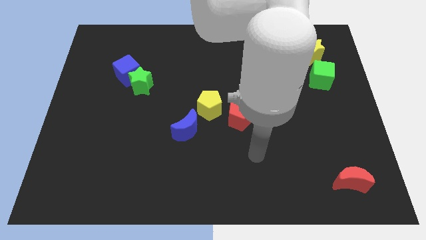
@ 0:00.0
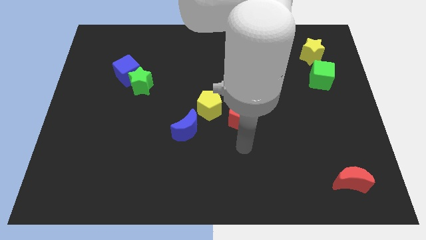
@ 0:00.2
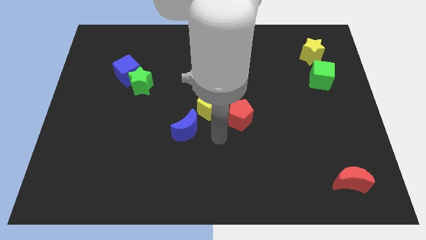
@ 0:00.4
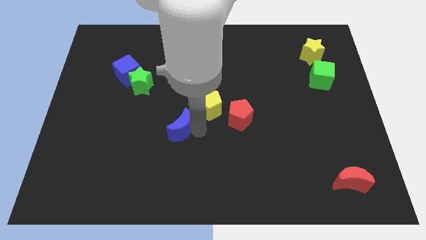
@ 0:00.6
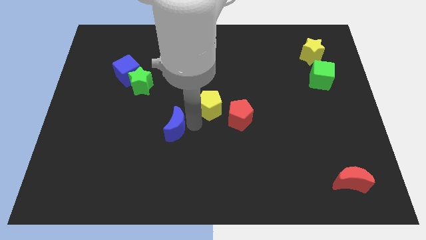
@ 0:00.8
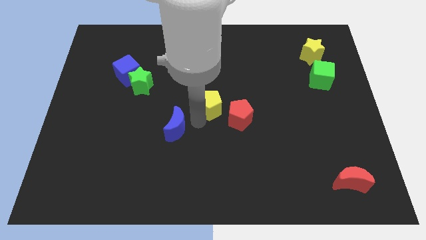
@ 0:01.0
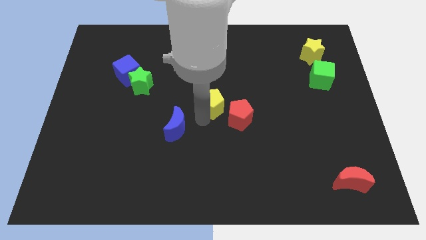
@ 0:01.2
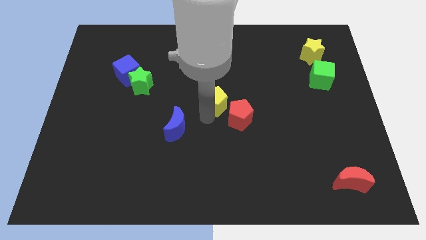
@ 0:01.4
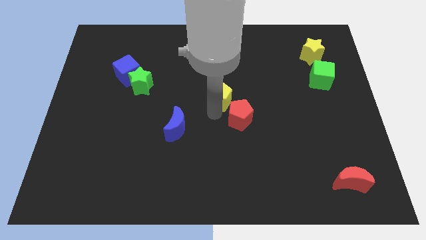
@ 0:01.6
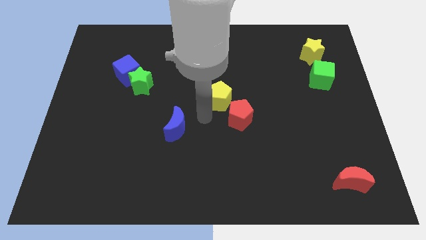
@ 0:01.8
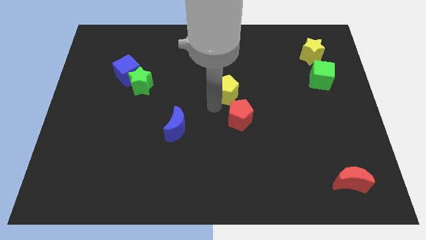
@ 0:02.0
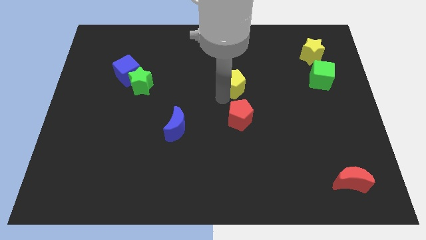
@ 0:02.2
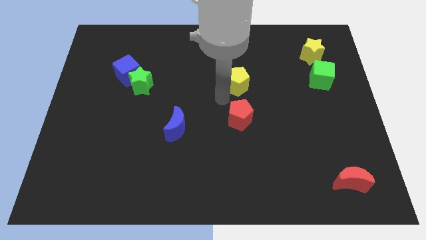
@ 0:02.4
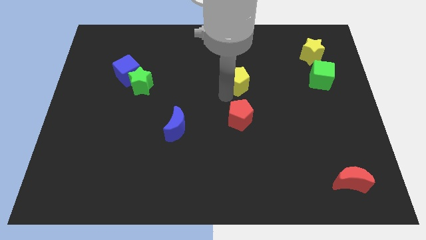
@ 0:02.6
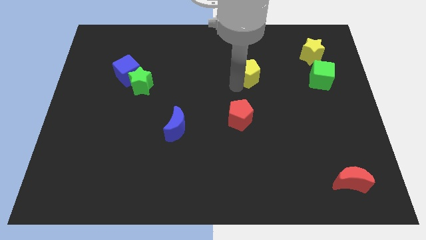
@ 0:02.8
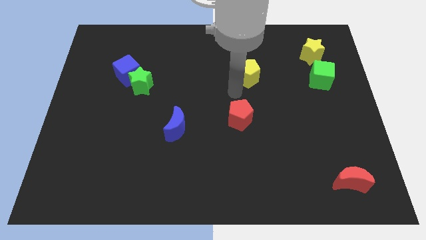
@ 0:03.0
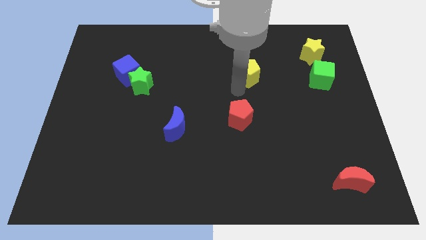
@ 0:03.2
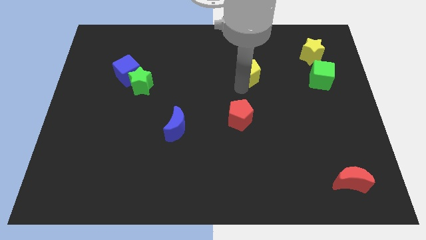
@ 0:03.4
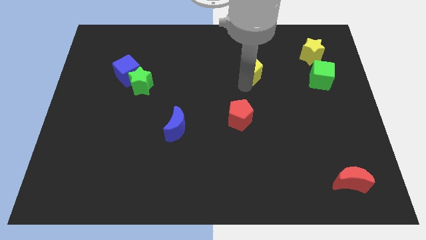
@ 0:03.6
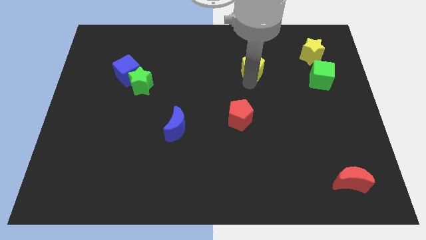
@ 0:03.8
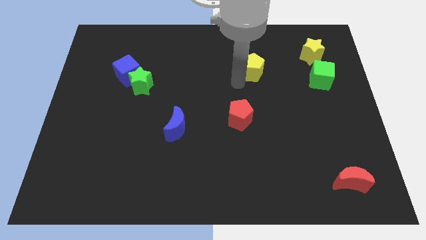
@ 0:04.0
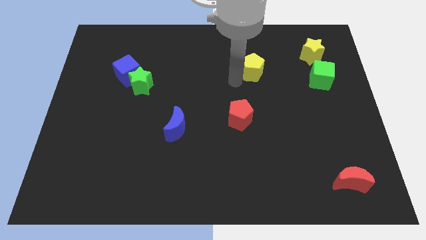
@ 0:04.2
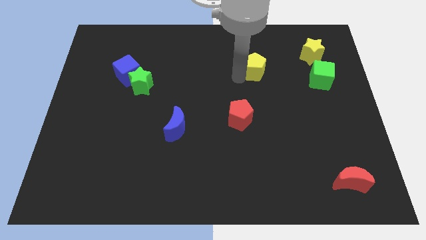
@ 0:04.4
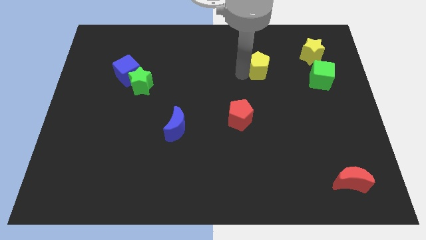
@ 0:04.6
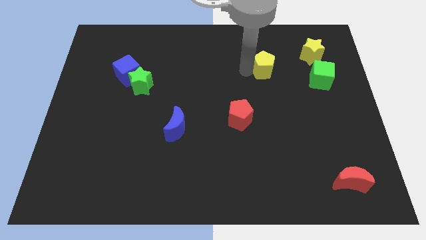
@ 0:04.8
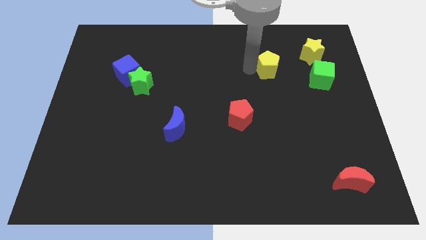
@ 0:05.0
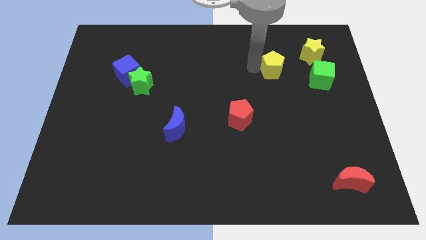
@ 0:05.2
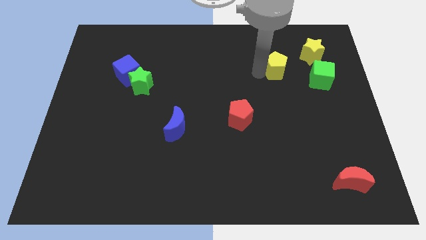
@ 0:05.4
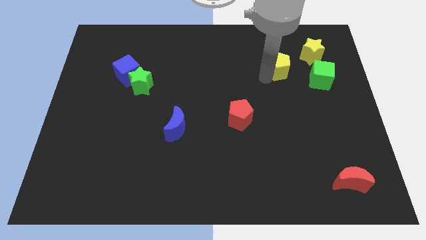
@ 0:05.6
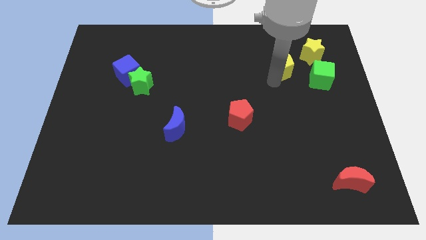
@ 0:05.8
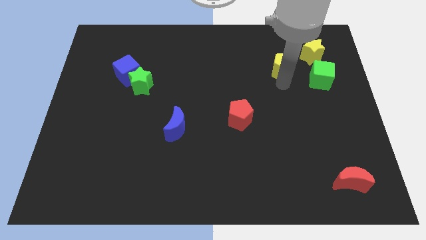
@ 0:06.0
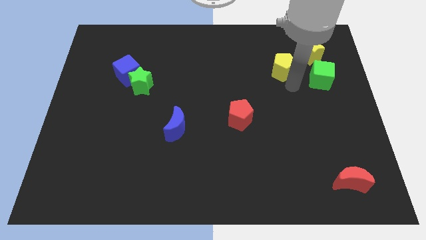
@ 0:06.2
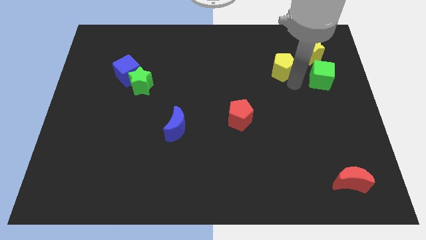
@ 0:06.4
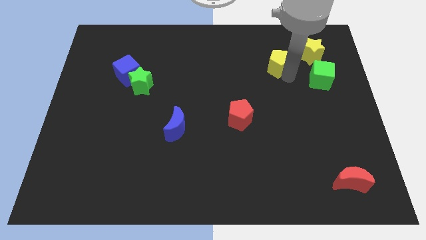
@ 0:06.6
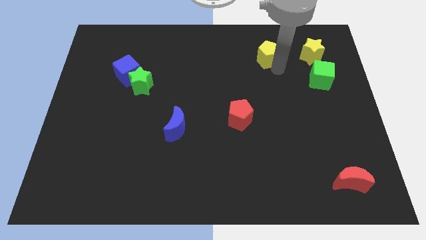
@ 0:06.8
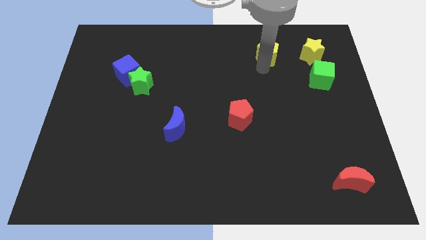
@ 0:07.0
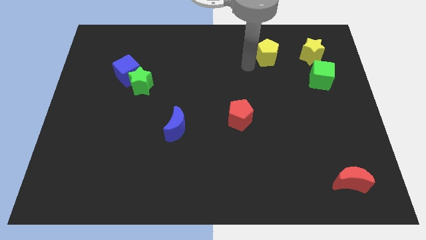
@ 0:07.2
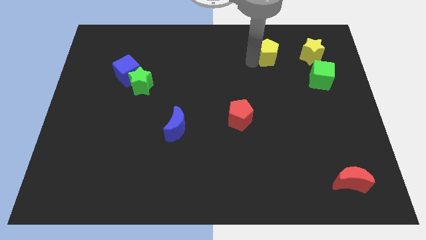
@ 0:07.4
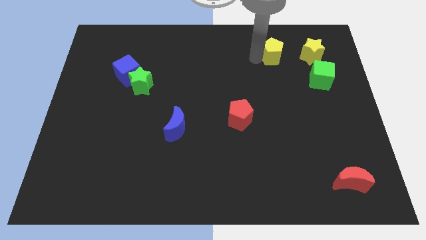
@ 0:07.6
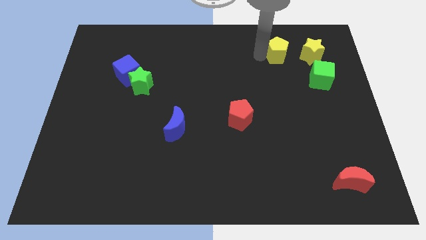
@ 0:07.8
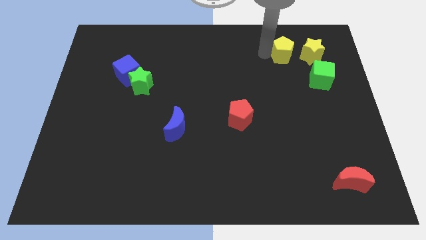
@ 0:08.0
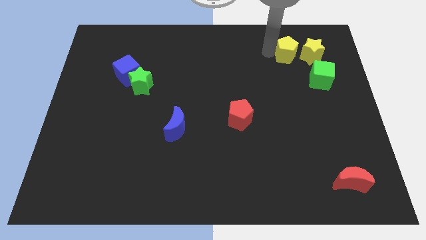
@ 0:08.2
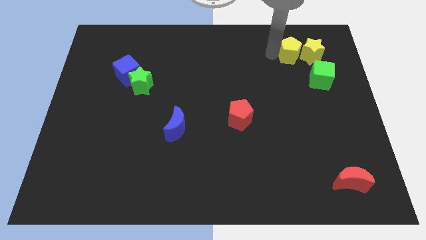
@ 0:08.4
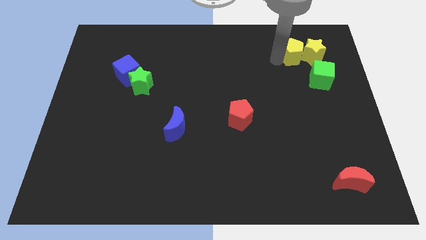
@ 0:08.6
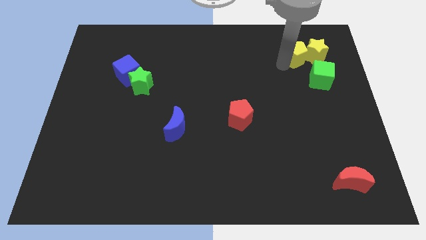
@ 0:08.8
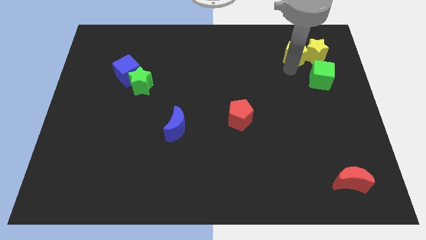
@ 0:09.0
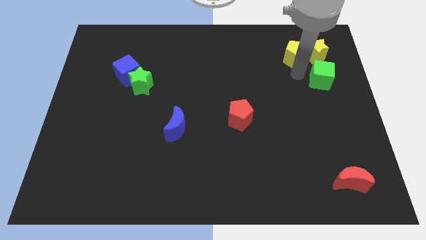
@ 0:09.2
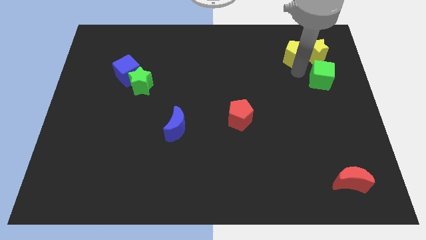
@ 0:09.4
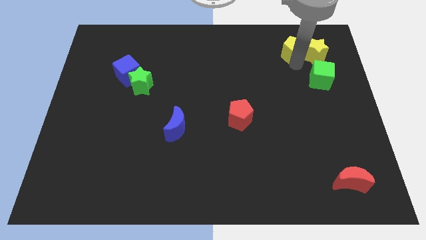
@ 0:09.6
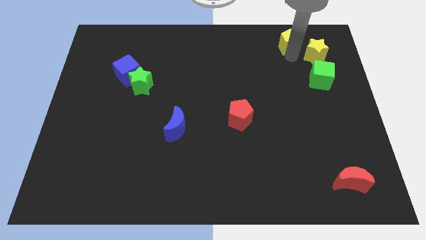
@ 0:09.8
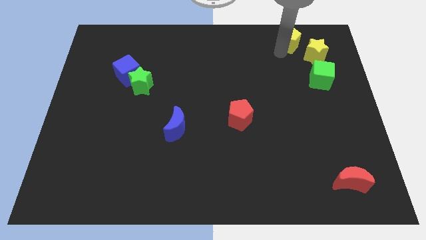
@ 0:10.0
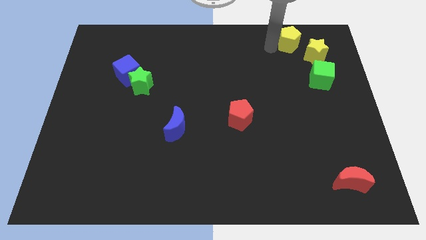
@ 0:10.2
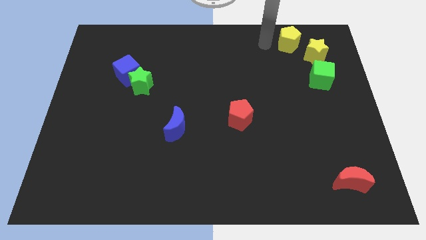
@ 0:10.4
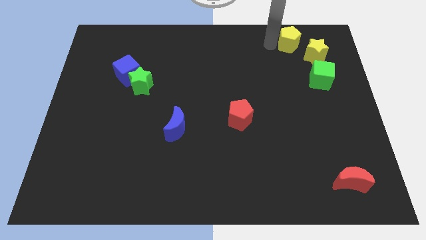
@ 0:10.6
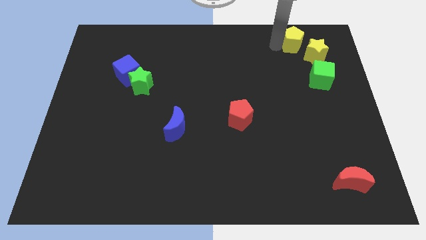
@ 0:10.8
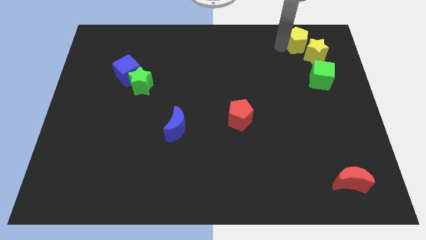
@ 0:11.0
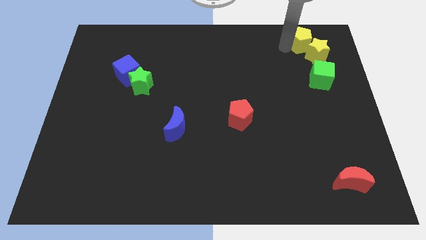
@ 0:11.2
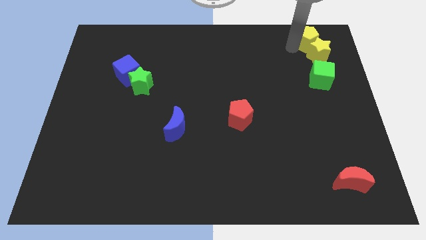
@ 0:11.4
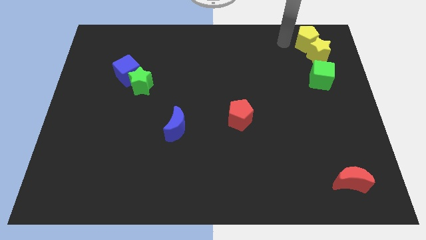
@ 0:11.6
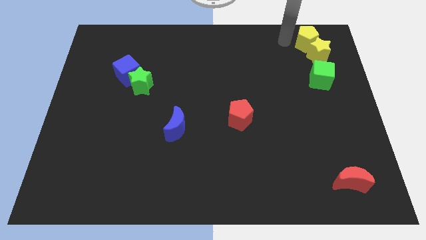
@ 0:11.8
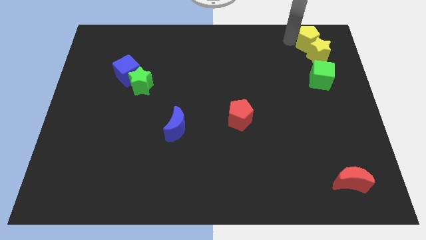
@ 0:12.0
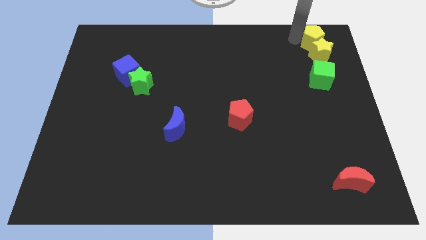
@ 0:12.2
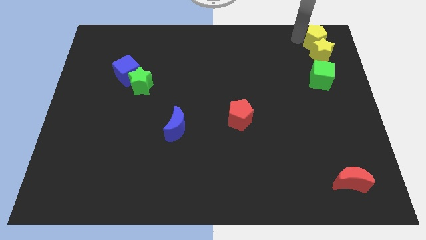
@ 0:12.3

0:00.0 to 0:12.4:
move the yellow pentagon to the top right

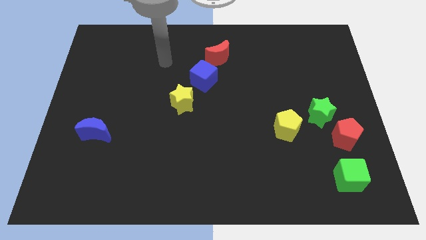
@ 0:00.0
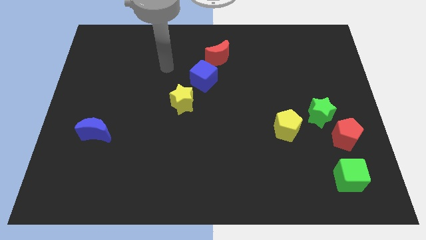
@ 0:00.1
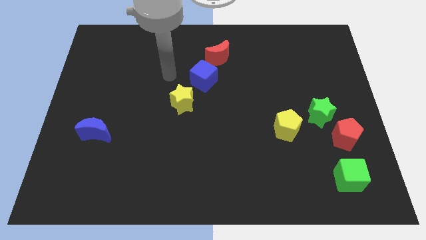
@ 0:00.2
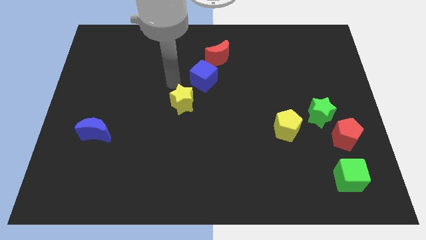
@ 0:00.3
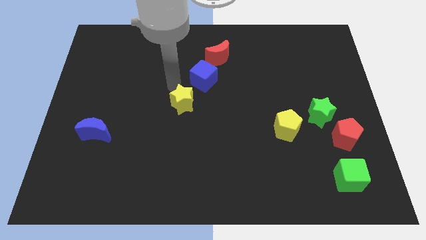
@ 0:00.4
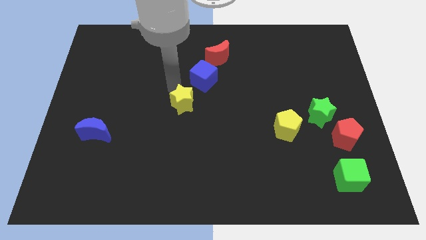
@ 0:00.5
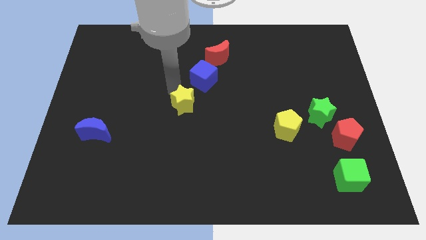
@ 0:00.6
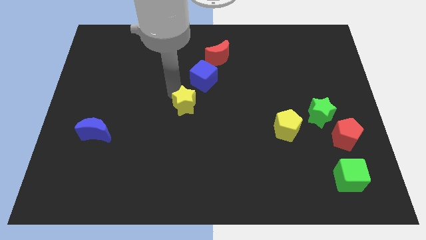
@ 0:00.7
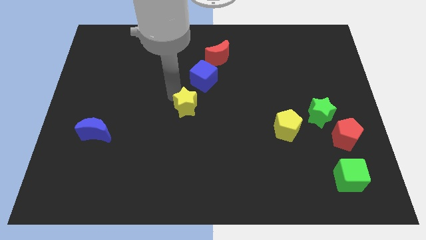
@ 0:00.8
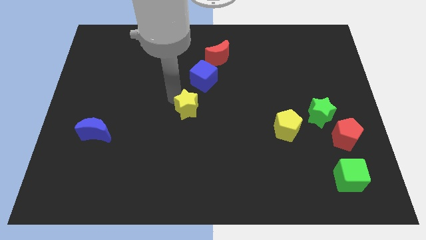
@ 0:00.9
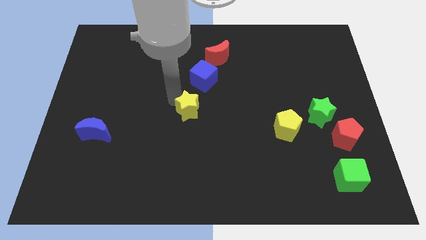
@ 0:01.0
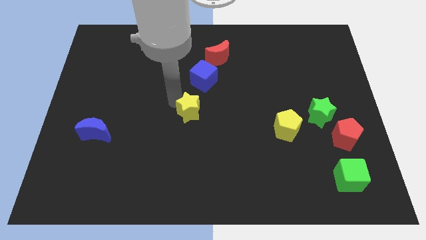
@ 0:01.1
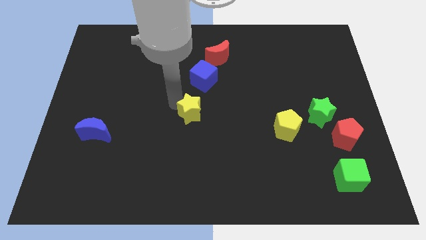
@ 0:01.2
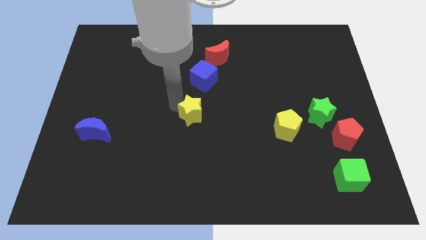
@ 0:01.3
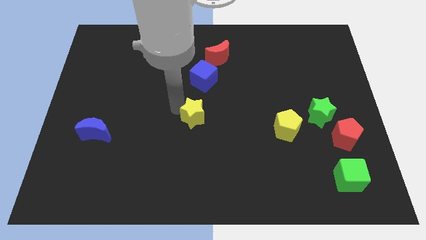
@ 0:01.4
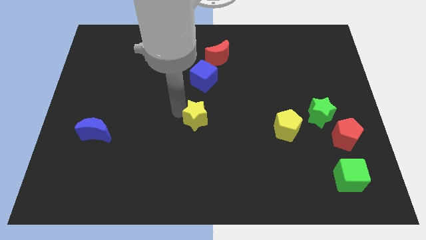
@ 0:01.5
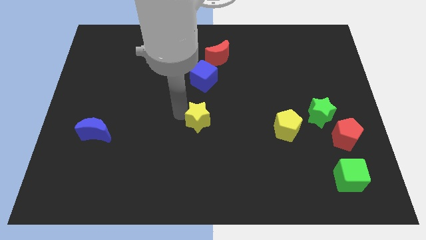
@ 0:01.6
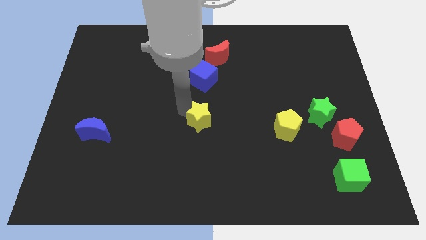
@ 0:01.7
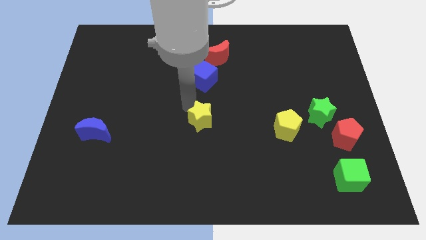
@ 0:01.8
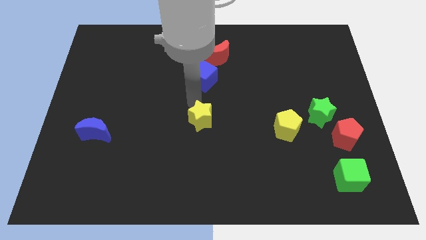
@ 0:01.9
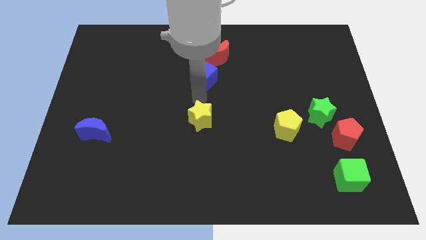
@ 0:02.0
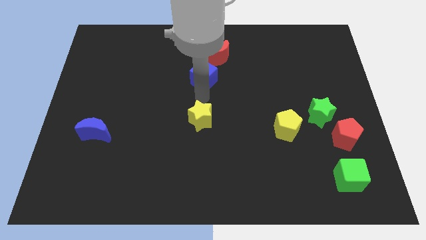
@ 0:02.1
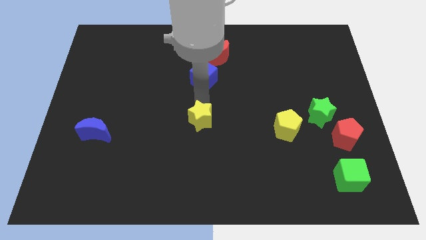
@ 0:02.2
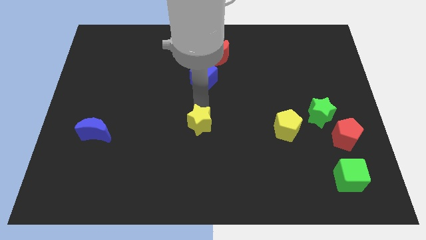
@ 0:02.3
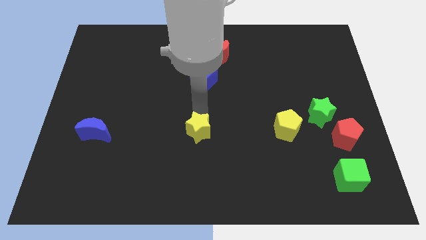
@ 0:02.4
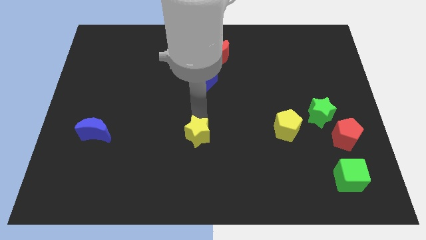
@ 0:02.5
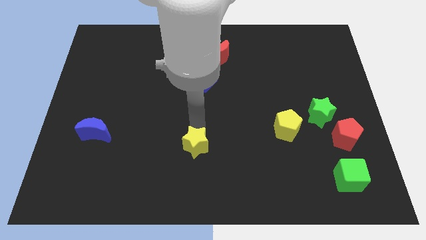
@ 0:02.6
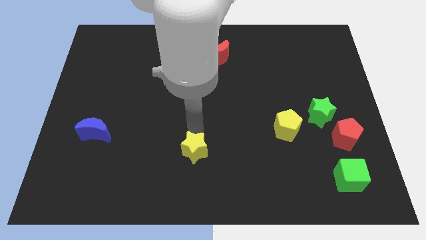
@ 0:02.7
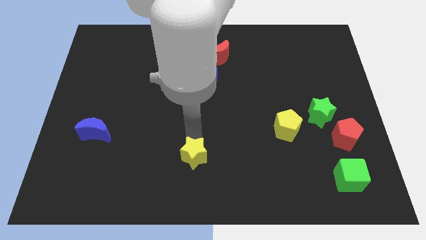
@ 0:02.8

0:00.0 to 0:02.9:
move the yellow star to the bottom side
